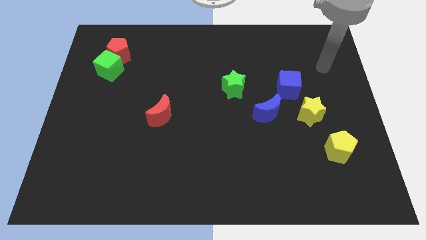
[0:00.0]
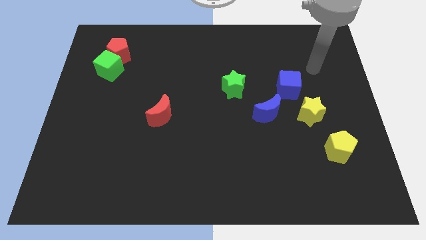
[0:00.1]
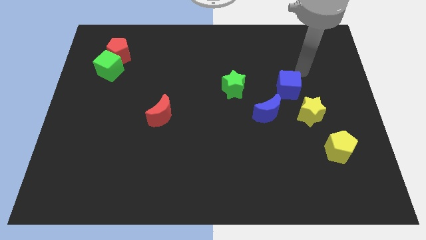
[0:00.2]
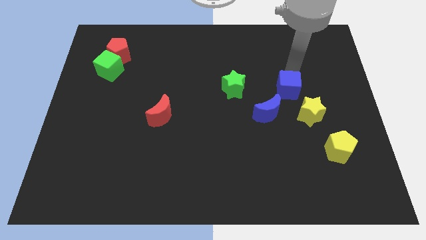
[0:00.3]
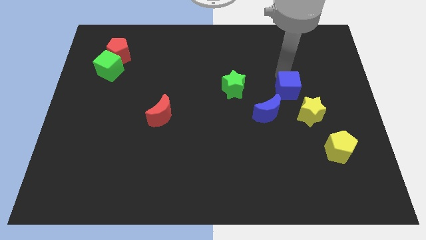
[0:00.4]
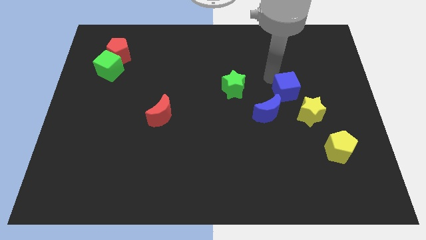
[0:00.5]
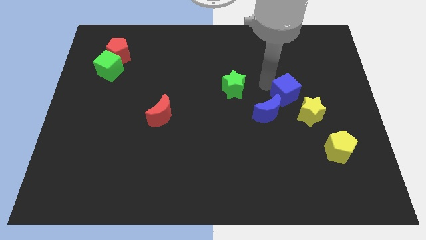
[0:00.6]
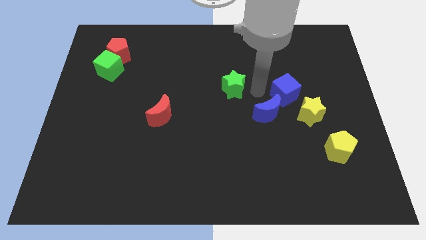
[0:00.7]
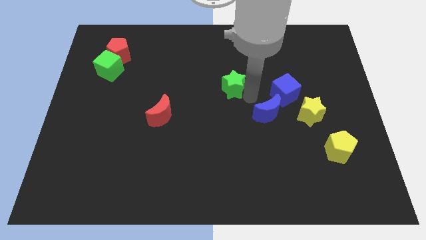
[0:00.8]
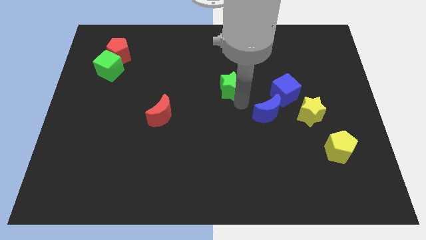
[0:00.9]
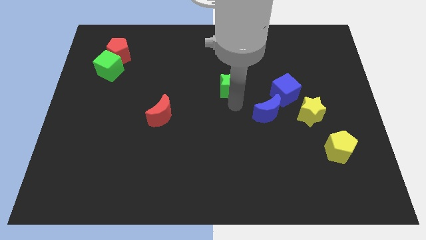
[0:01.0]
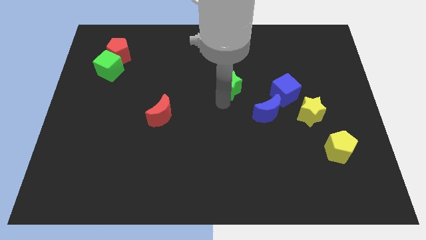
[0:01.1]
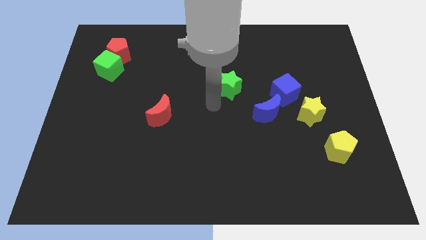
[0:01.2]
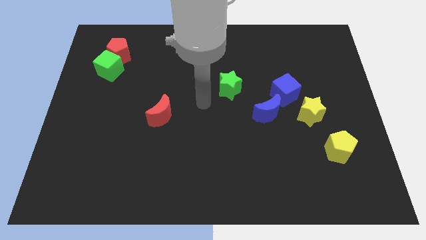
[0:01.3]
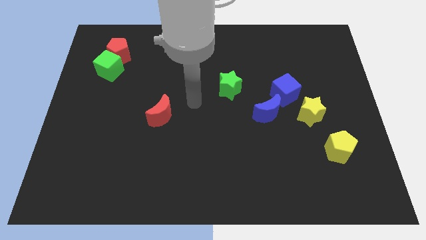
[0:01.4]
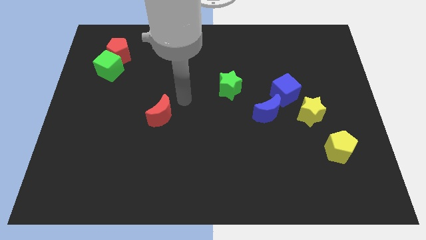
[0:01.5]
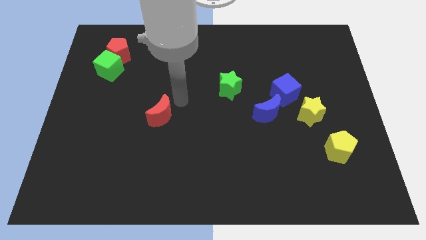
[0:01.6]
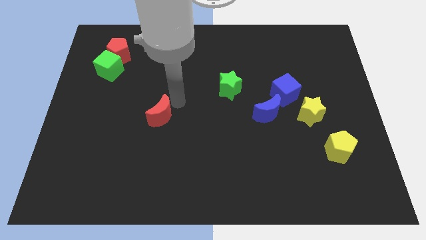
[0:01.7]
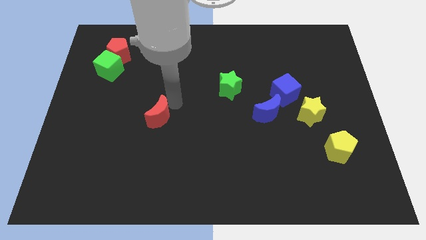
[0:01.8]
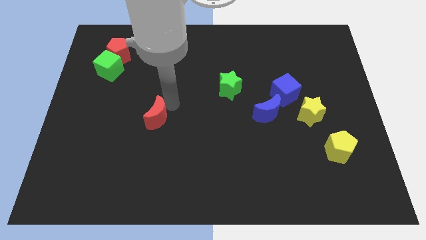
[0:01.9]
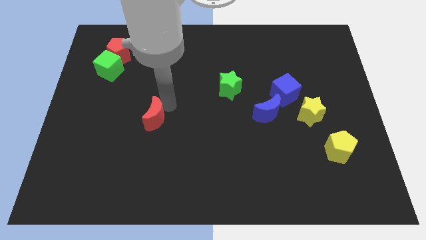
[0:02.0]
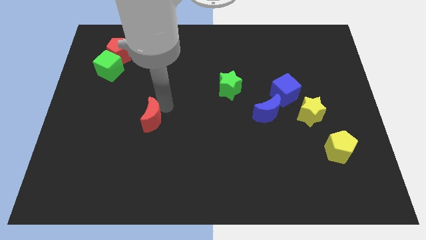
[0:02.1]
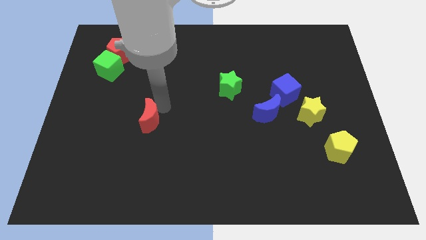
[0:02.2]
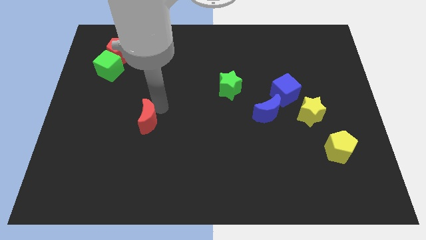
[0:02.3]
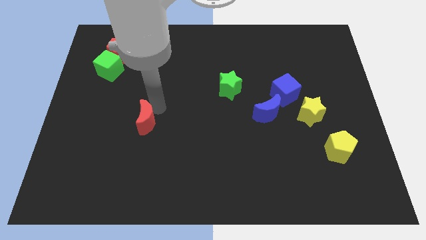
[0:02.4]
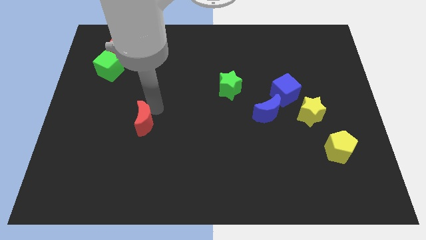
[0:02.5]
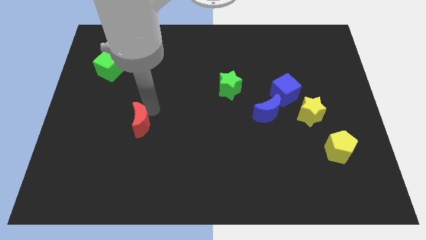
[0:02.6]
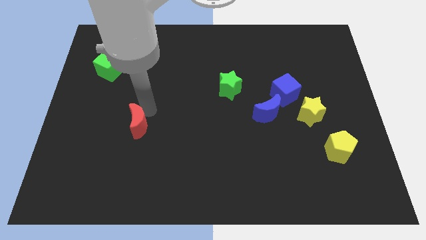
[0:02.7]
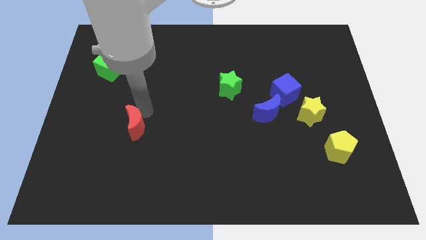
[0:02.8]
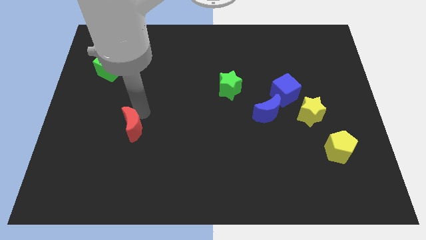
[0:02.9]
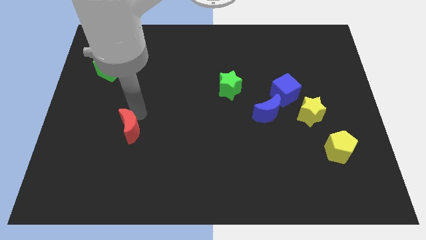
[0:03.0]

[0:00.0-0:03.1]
slide the red moon a little bit downwards and then left

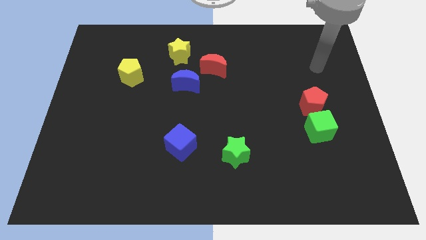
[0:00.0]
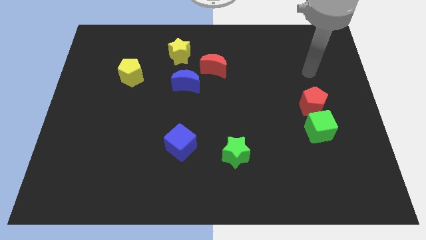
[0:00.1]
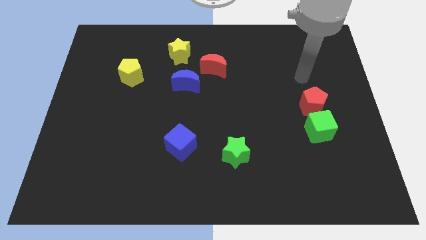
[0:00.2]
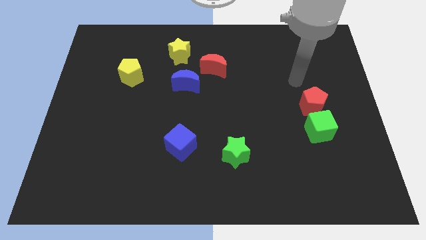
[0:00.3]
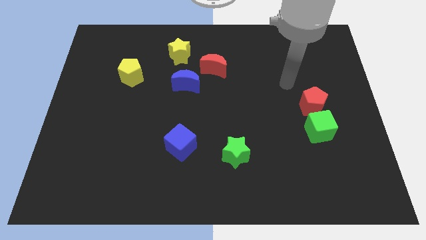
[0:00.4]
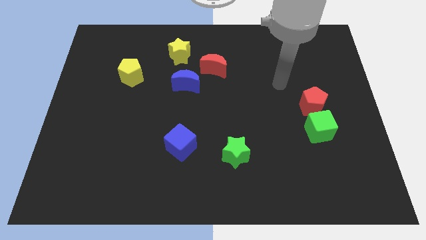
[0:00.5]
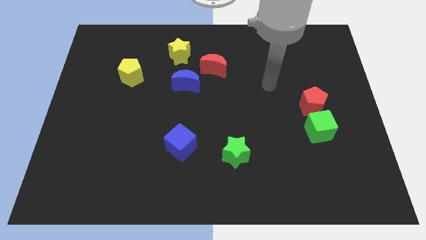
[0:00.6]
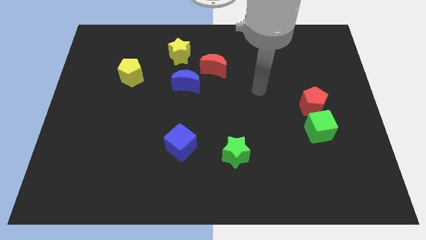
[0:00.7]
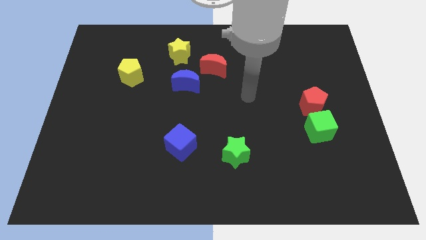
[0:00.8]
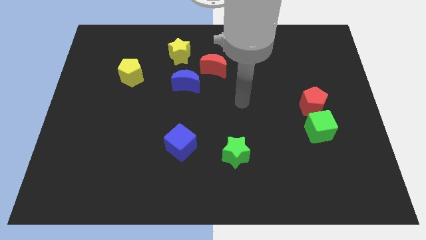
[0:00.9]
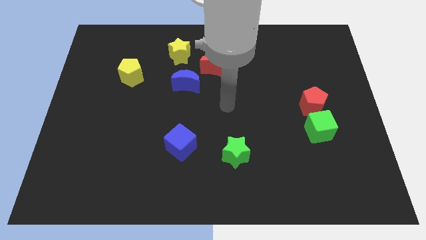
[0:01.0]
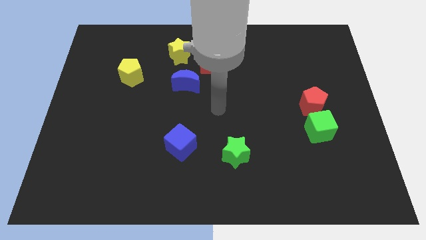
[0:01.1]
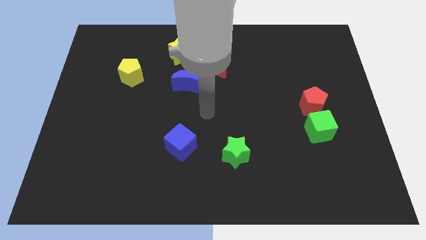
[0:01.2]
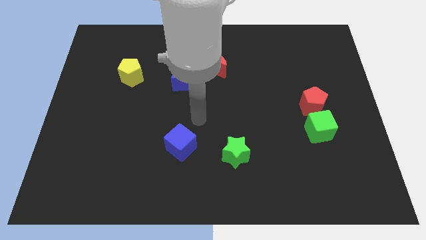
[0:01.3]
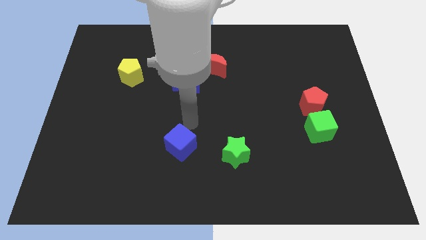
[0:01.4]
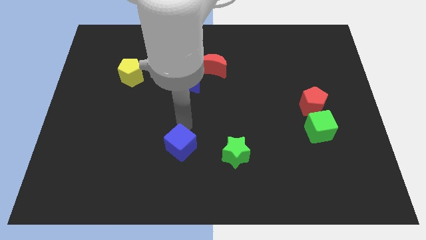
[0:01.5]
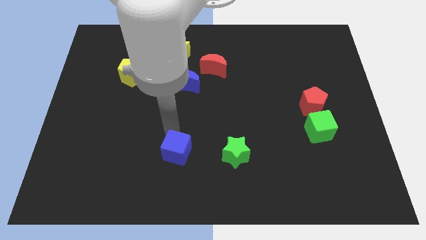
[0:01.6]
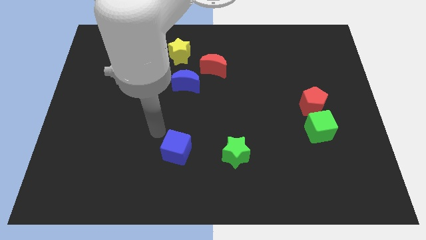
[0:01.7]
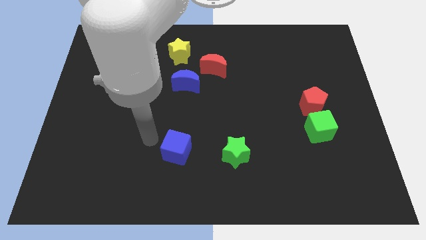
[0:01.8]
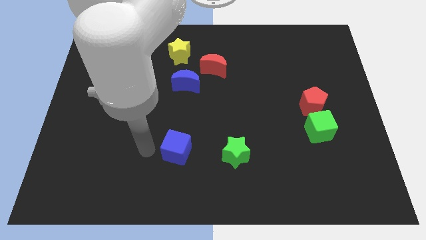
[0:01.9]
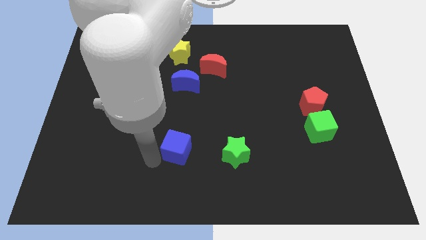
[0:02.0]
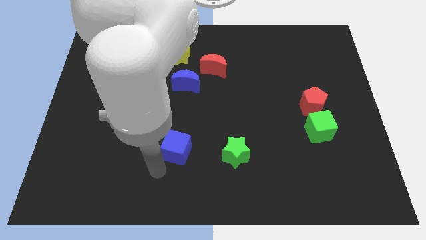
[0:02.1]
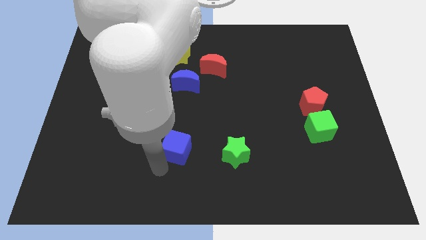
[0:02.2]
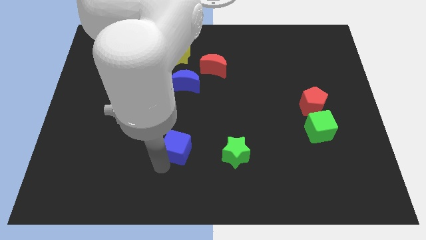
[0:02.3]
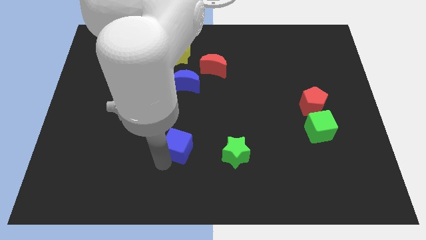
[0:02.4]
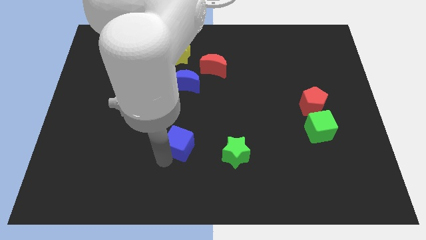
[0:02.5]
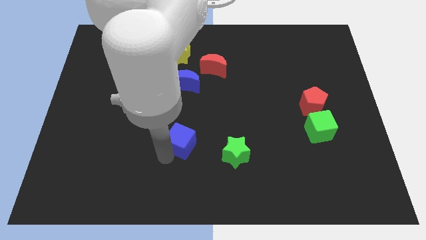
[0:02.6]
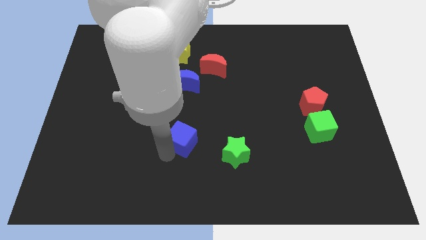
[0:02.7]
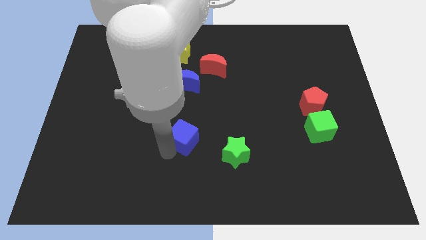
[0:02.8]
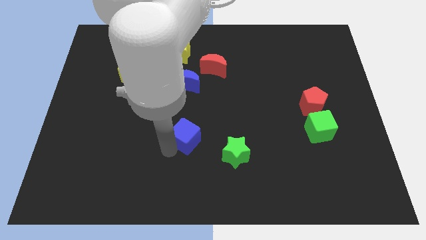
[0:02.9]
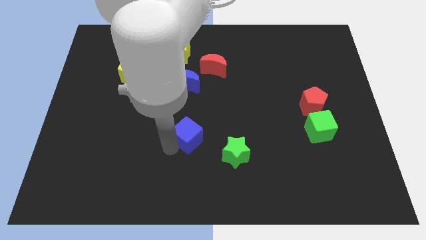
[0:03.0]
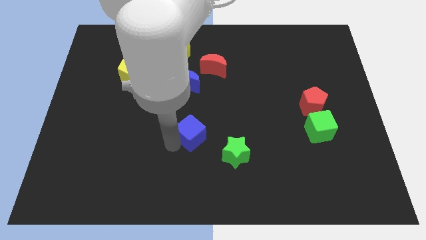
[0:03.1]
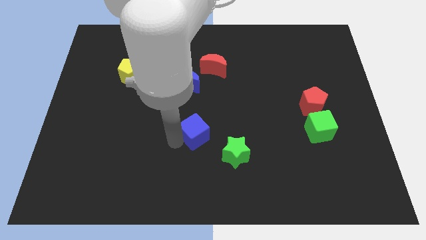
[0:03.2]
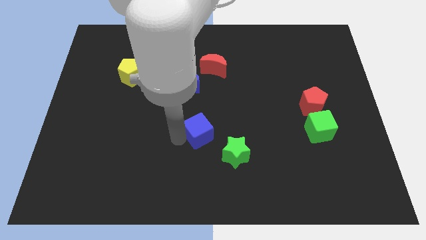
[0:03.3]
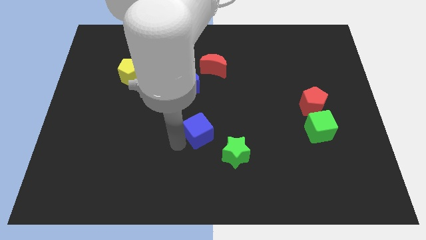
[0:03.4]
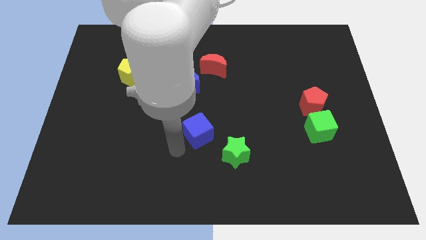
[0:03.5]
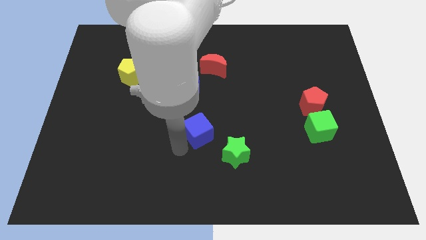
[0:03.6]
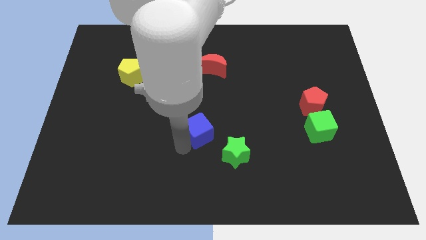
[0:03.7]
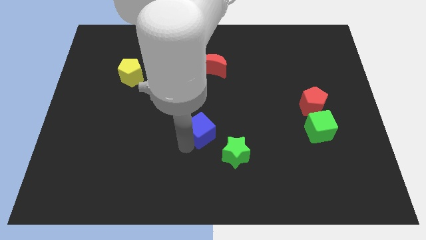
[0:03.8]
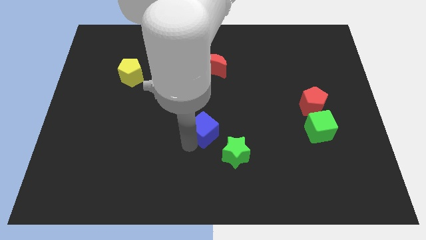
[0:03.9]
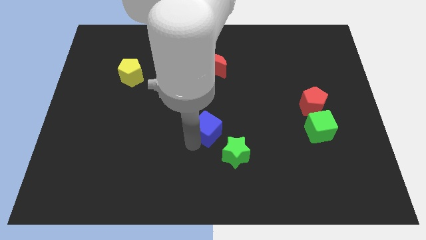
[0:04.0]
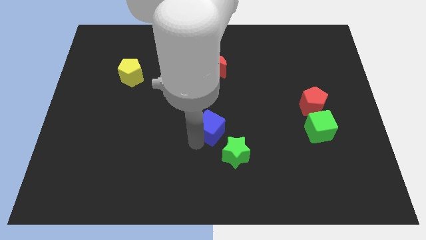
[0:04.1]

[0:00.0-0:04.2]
slide the blue cube somewhat up and right diagonally

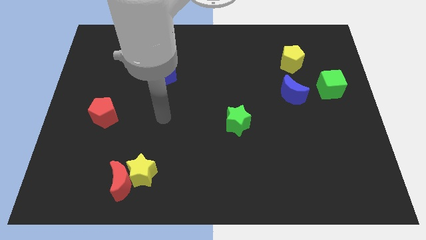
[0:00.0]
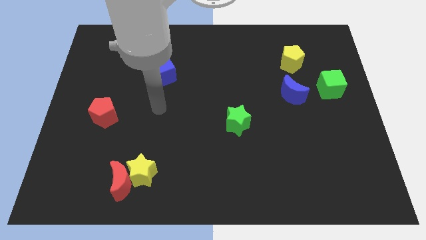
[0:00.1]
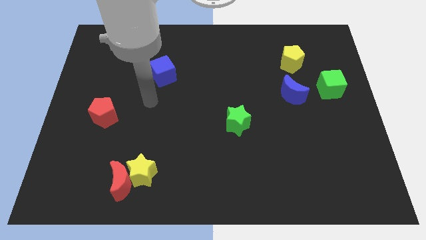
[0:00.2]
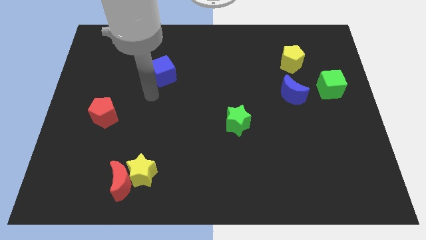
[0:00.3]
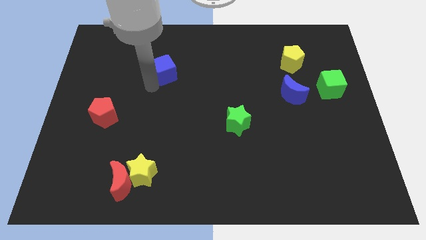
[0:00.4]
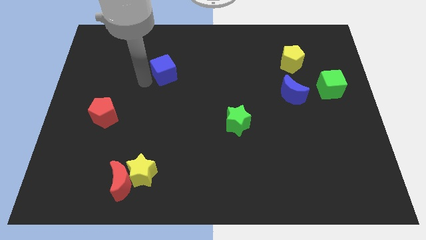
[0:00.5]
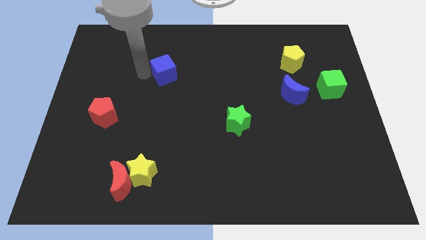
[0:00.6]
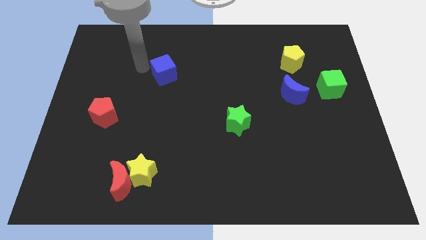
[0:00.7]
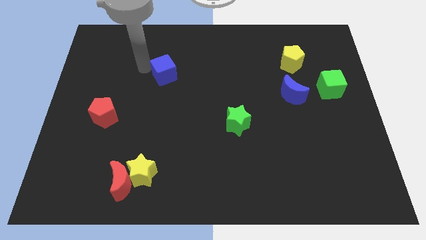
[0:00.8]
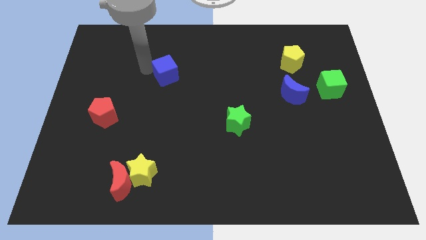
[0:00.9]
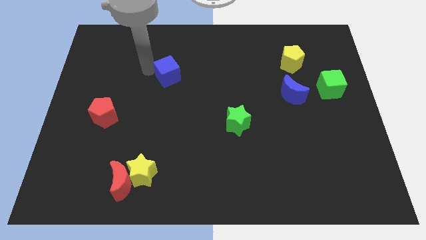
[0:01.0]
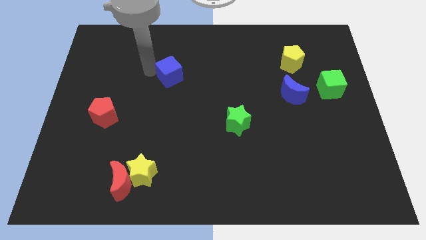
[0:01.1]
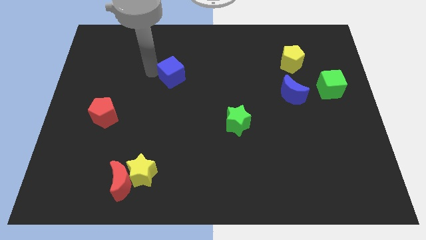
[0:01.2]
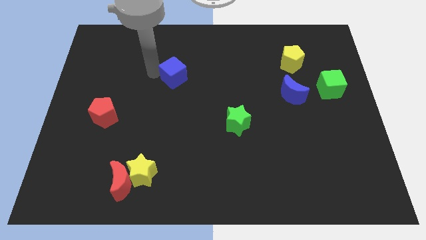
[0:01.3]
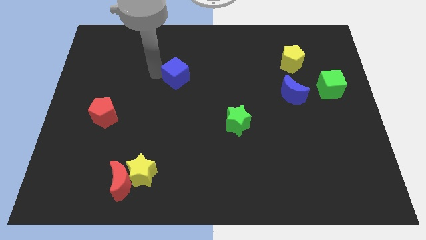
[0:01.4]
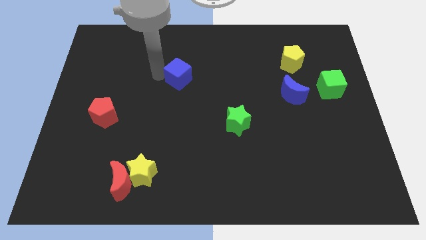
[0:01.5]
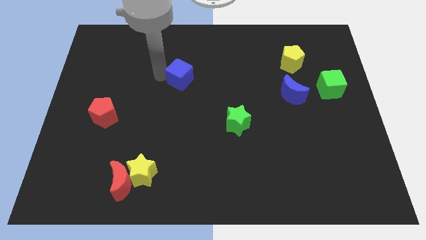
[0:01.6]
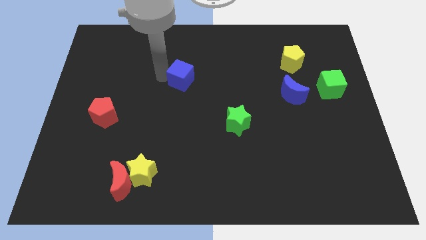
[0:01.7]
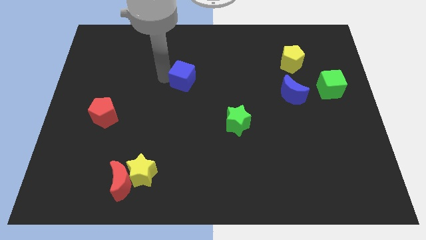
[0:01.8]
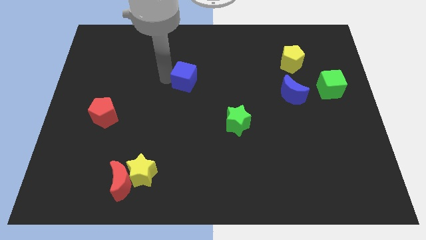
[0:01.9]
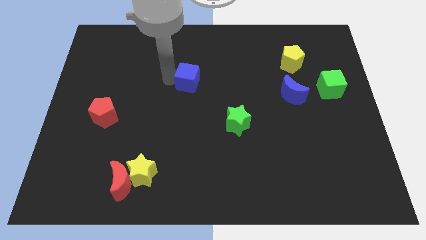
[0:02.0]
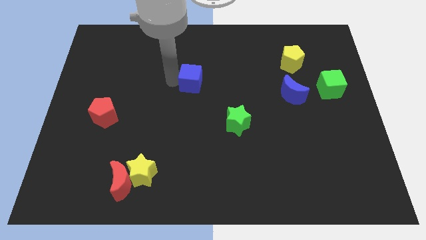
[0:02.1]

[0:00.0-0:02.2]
slide the blue cube somewhat to the right
